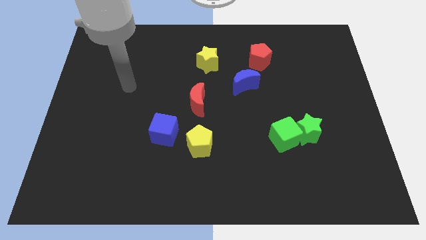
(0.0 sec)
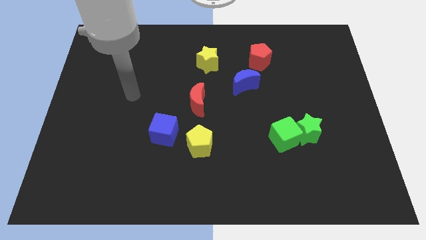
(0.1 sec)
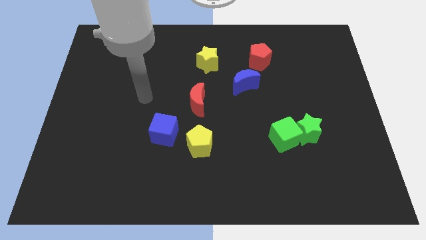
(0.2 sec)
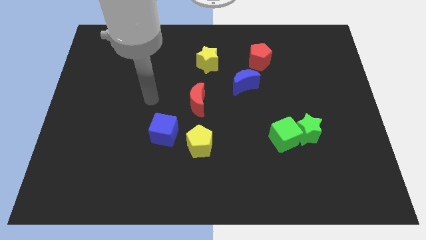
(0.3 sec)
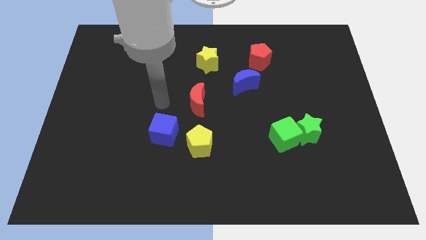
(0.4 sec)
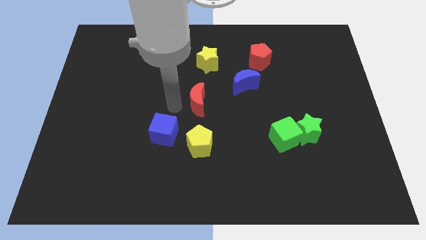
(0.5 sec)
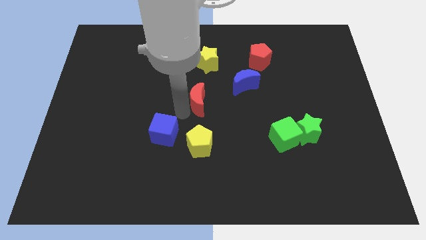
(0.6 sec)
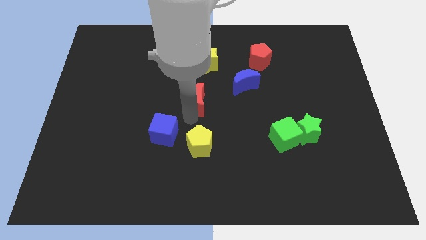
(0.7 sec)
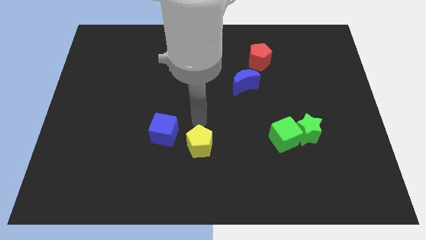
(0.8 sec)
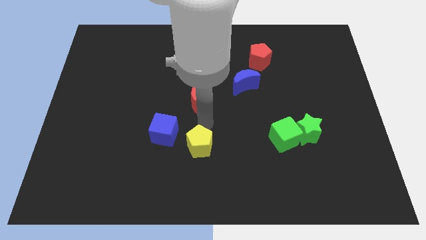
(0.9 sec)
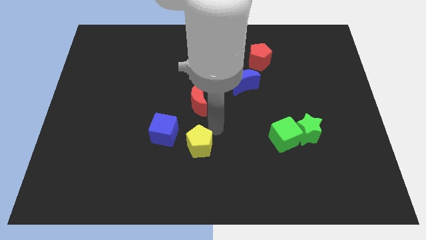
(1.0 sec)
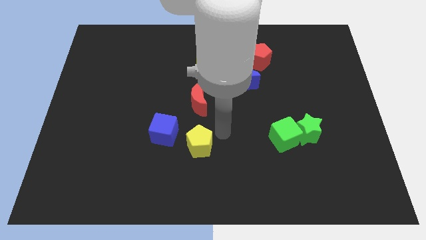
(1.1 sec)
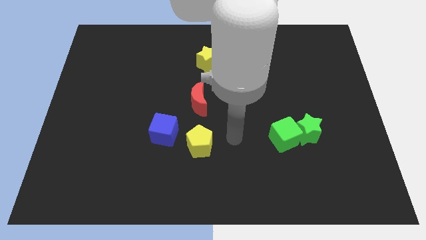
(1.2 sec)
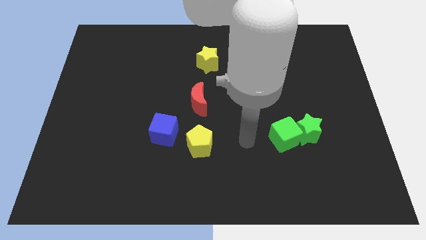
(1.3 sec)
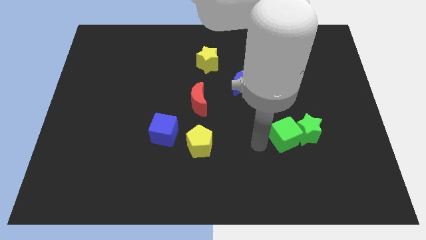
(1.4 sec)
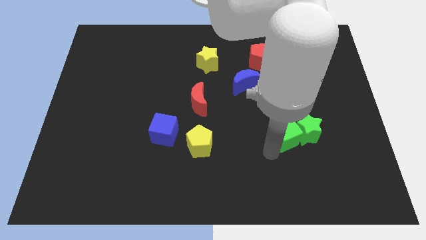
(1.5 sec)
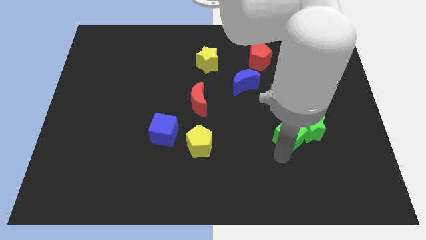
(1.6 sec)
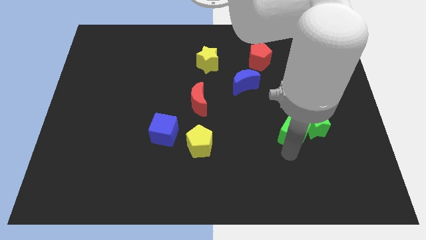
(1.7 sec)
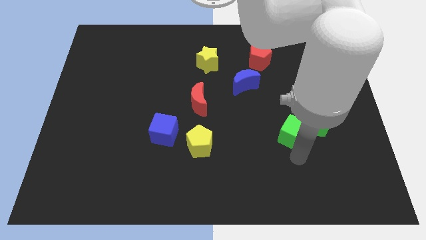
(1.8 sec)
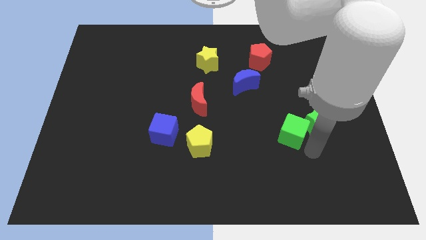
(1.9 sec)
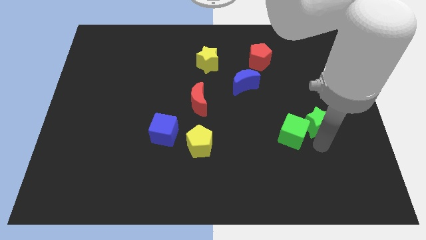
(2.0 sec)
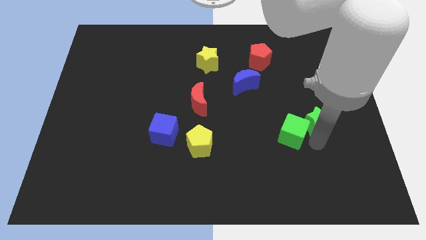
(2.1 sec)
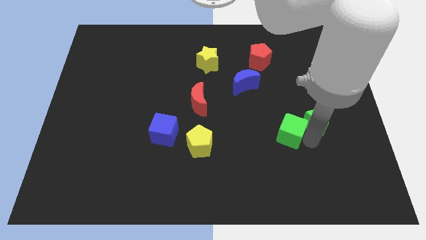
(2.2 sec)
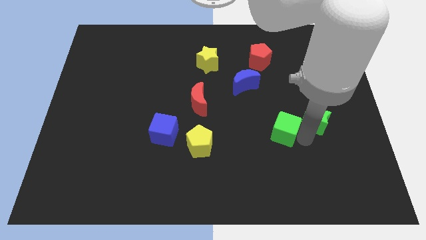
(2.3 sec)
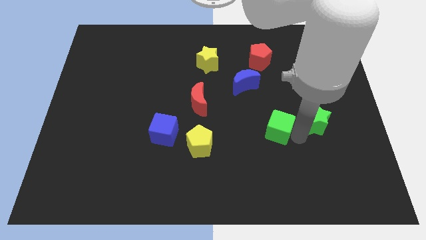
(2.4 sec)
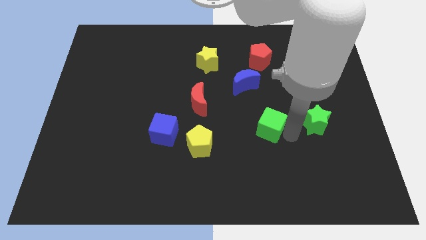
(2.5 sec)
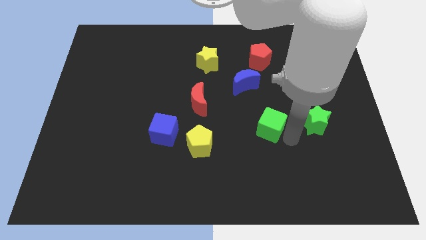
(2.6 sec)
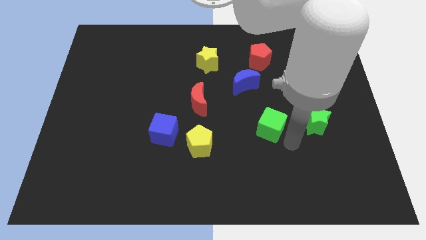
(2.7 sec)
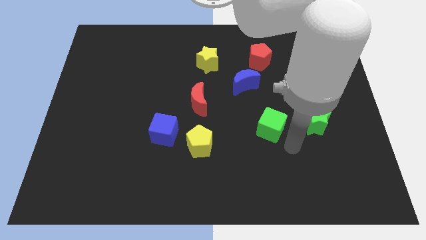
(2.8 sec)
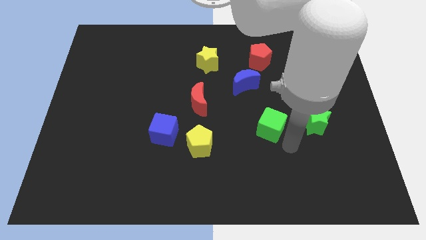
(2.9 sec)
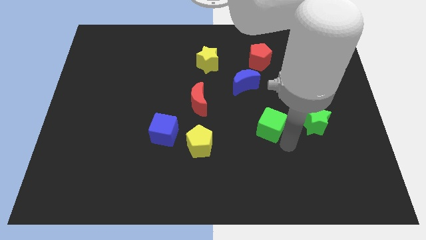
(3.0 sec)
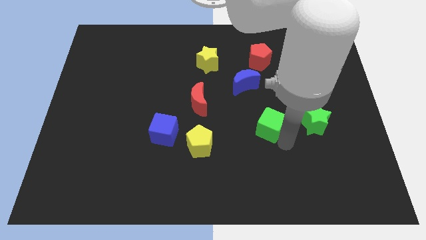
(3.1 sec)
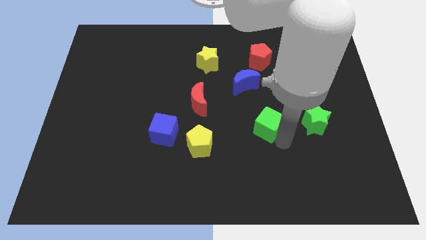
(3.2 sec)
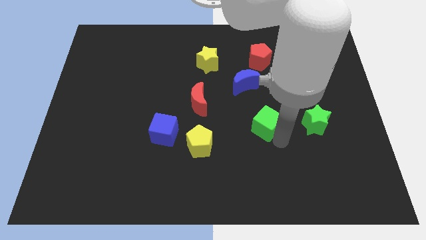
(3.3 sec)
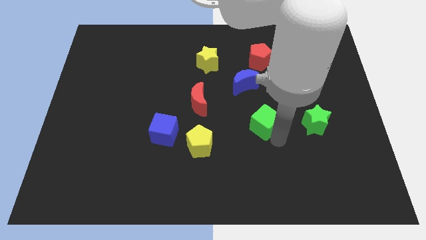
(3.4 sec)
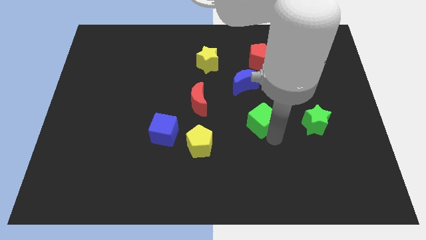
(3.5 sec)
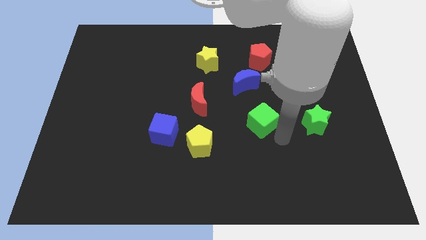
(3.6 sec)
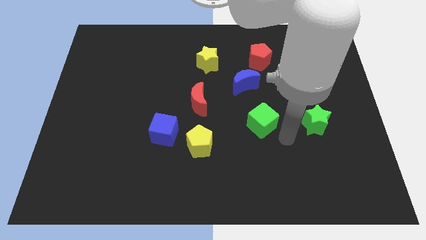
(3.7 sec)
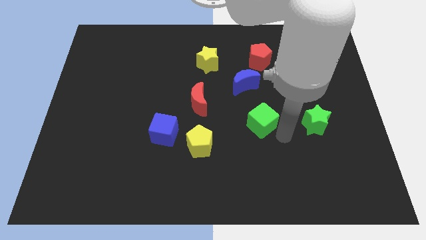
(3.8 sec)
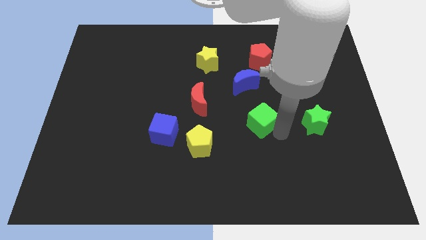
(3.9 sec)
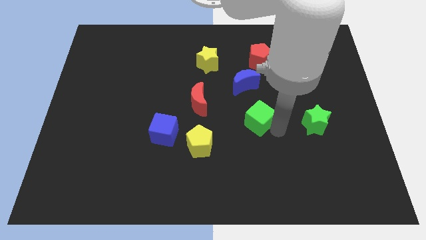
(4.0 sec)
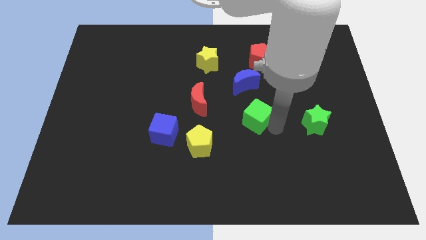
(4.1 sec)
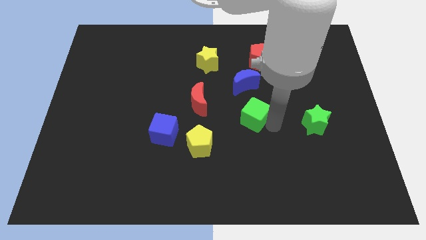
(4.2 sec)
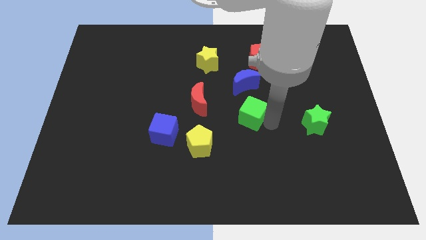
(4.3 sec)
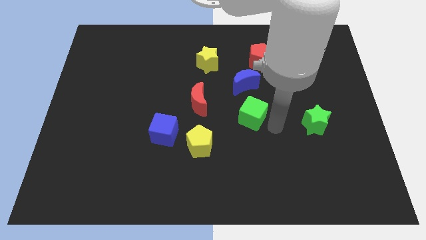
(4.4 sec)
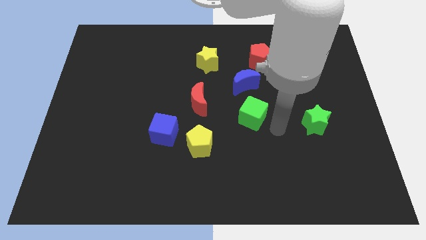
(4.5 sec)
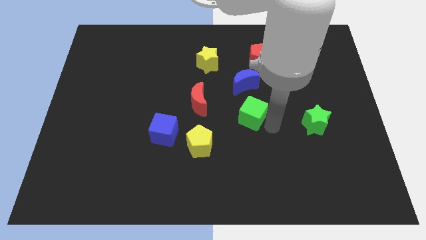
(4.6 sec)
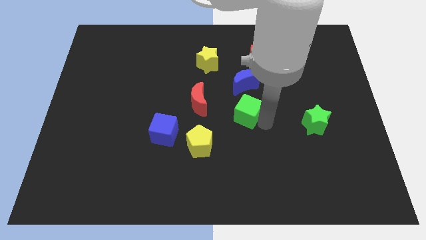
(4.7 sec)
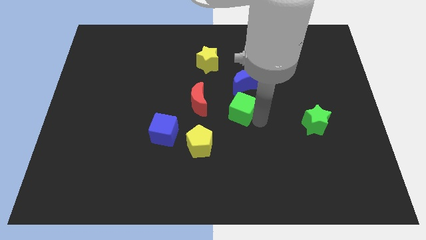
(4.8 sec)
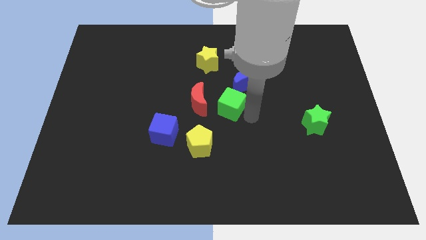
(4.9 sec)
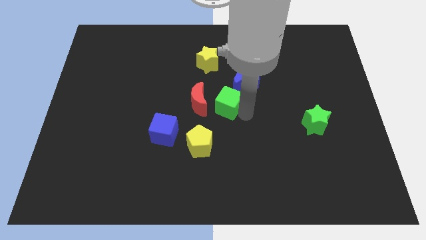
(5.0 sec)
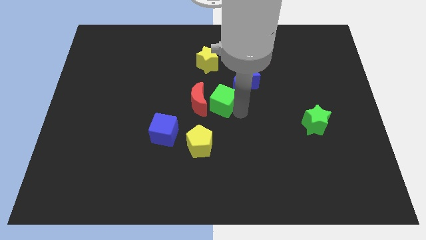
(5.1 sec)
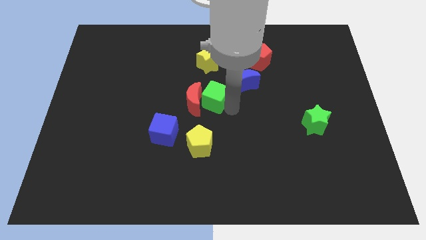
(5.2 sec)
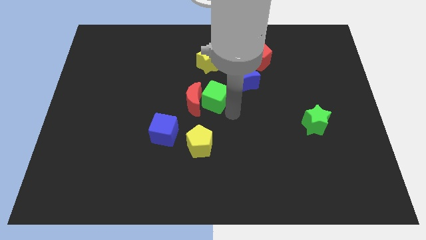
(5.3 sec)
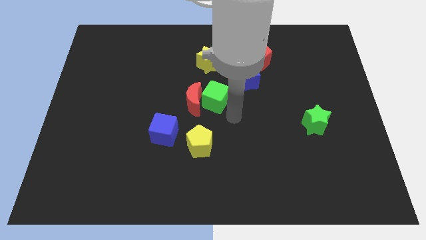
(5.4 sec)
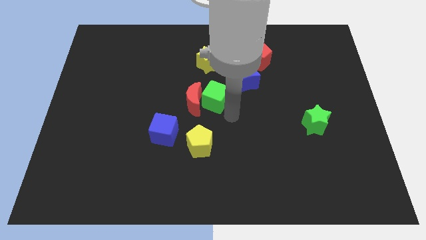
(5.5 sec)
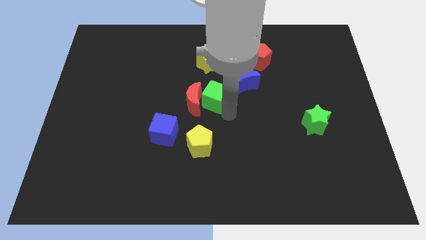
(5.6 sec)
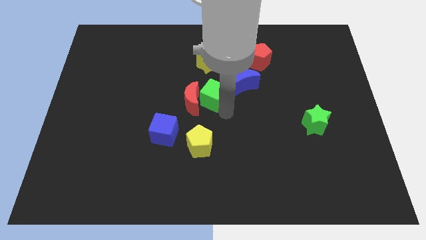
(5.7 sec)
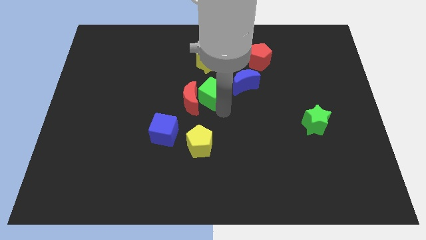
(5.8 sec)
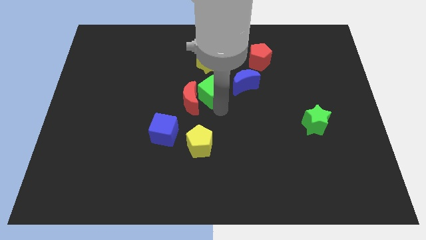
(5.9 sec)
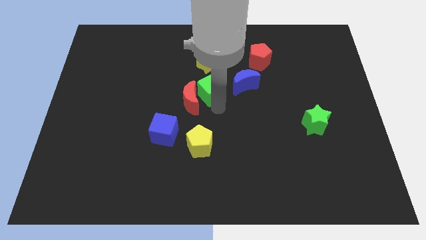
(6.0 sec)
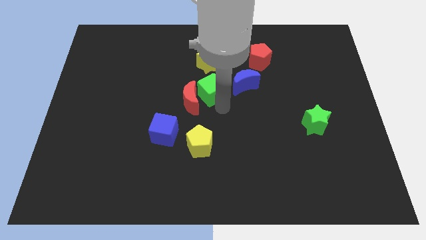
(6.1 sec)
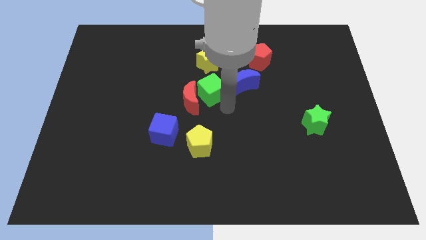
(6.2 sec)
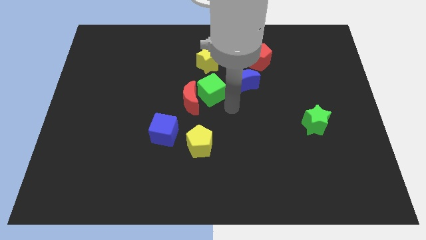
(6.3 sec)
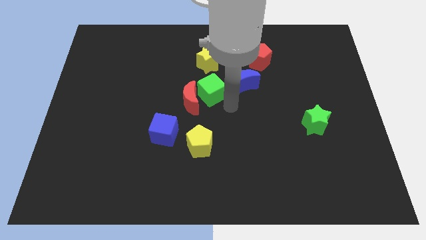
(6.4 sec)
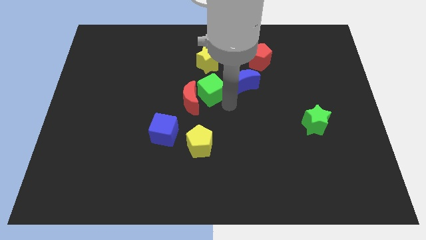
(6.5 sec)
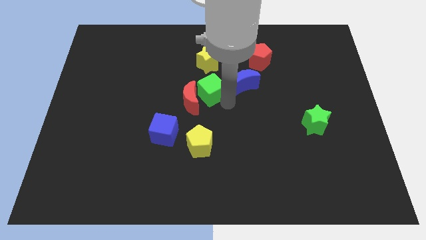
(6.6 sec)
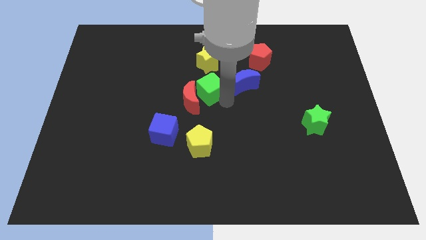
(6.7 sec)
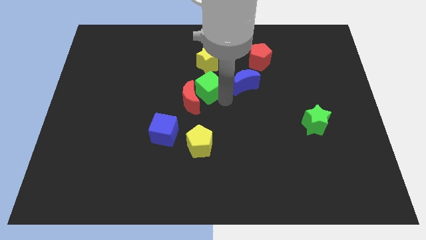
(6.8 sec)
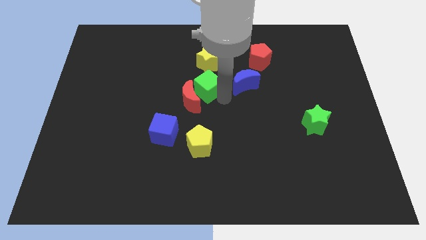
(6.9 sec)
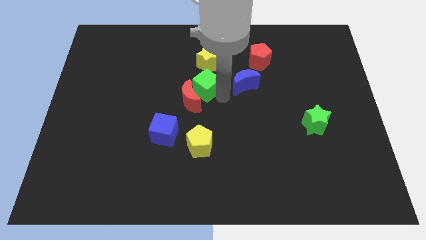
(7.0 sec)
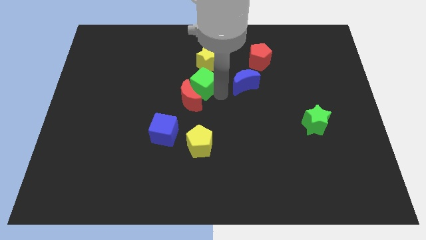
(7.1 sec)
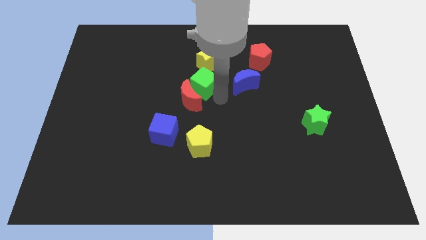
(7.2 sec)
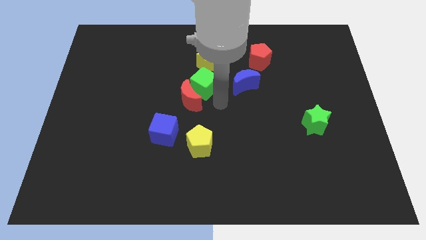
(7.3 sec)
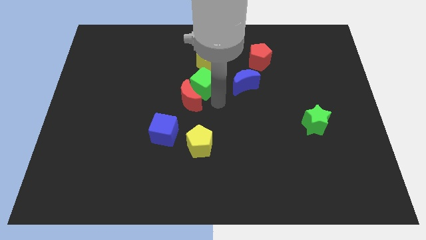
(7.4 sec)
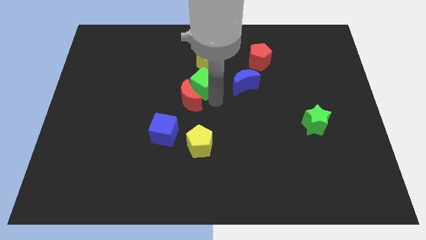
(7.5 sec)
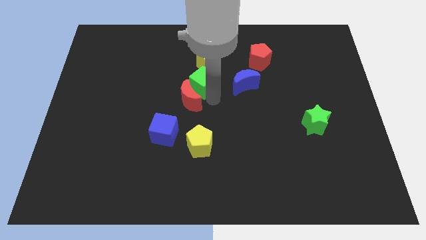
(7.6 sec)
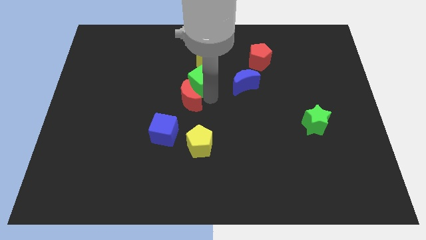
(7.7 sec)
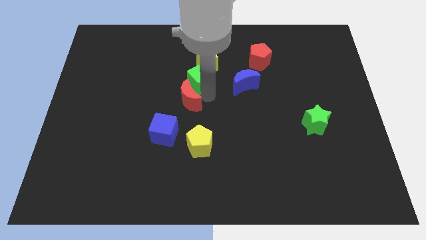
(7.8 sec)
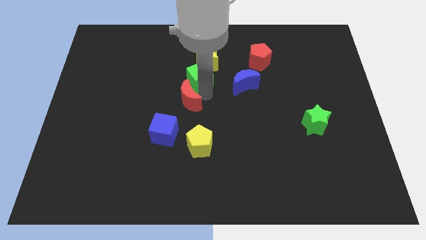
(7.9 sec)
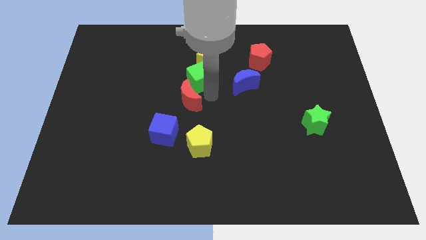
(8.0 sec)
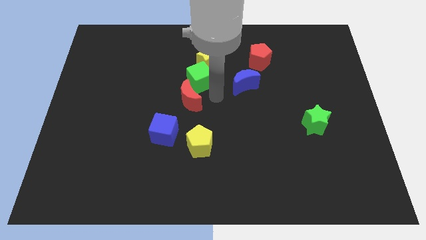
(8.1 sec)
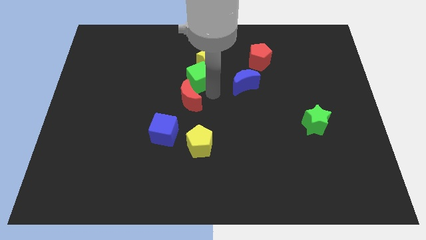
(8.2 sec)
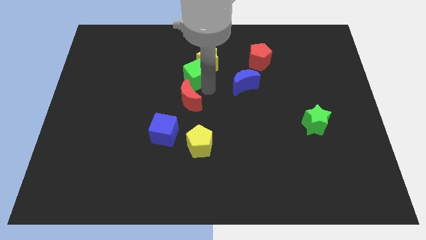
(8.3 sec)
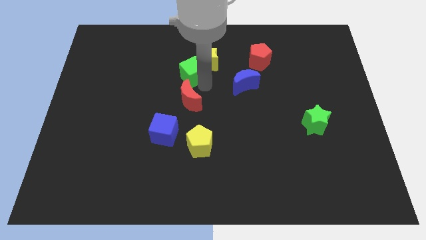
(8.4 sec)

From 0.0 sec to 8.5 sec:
slide the green cube to the left of the yellow star
